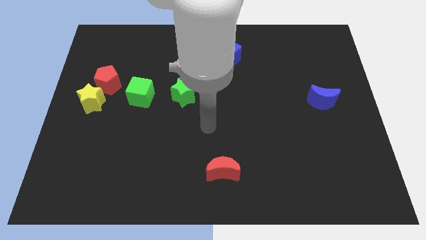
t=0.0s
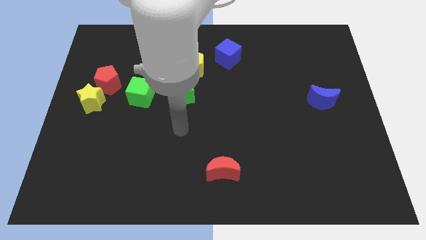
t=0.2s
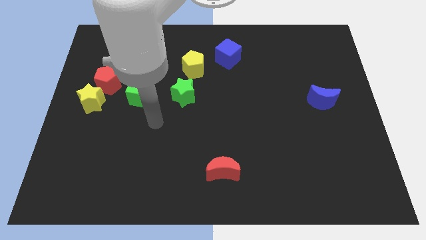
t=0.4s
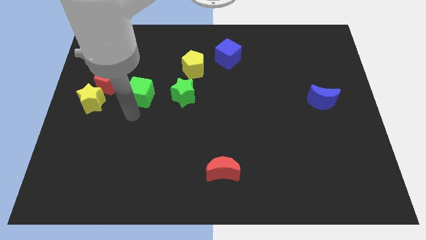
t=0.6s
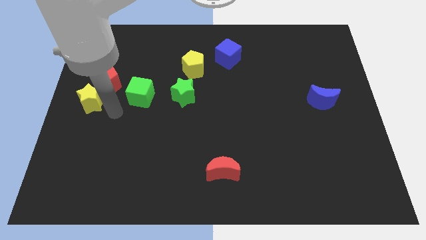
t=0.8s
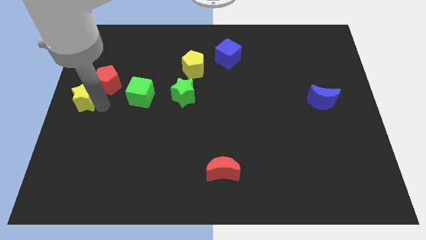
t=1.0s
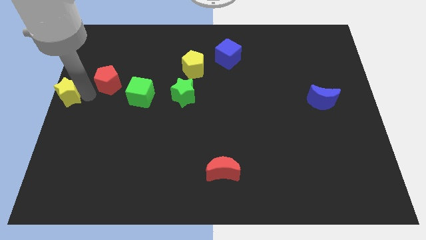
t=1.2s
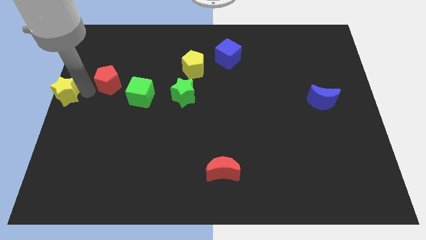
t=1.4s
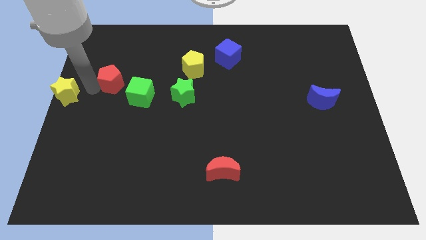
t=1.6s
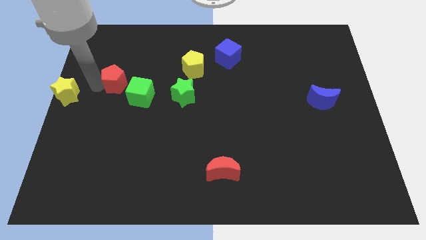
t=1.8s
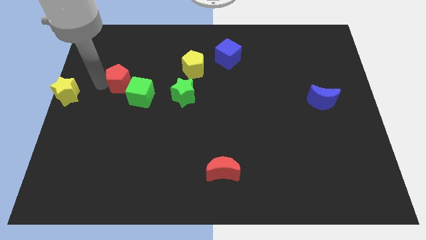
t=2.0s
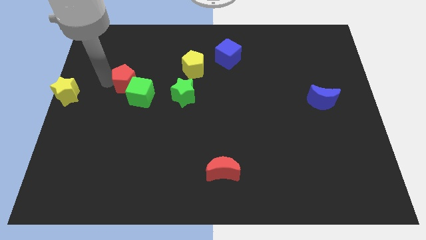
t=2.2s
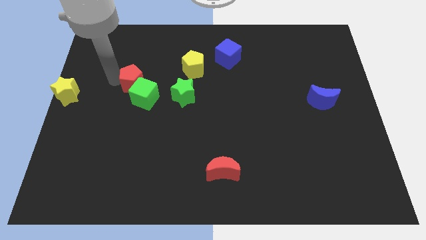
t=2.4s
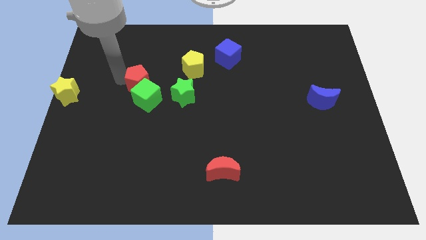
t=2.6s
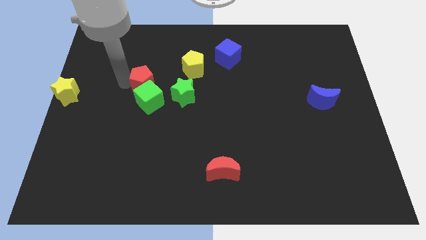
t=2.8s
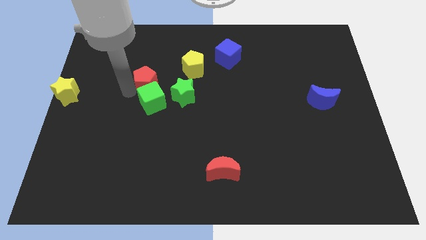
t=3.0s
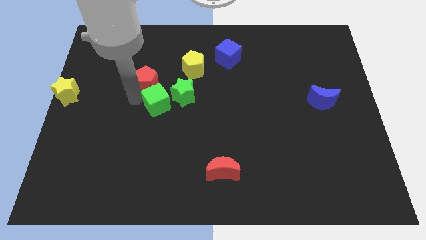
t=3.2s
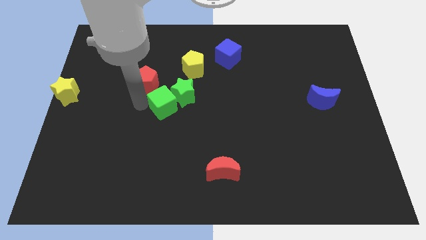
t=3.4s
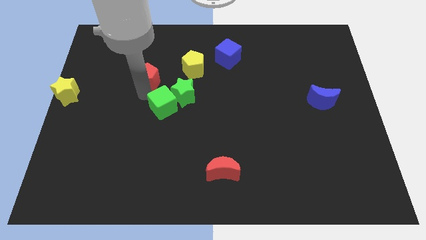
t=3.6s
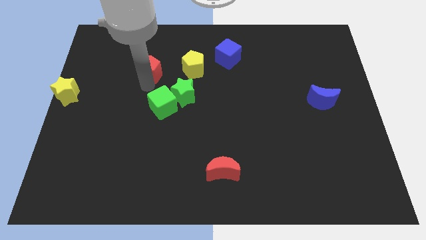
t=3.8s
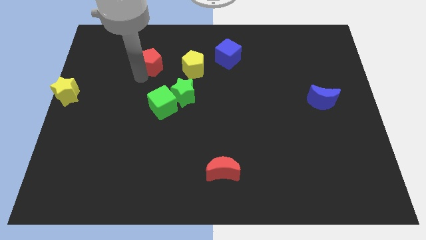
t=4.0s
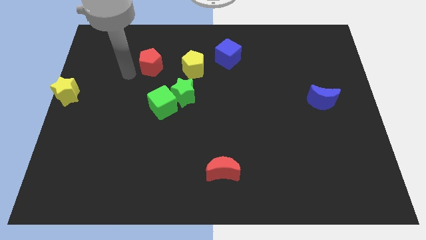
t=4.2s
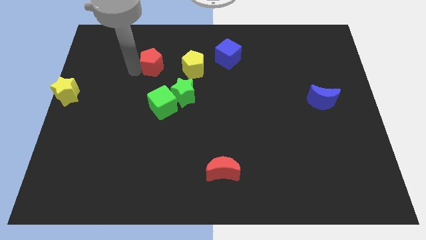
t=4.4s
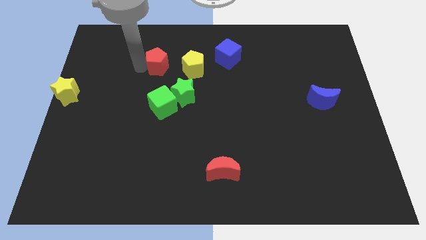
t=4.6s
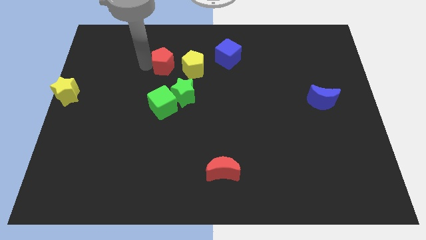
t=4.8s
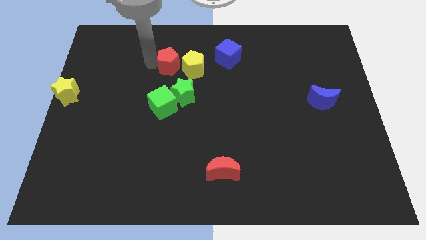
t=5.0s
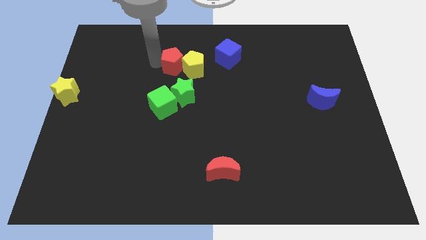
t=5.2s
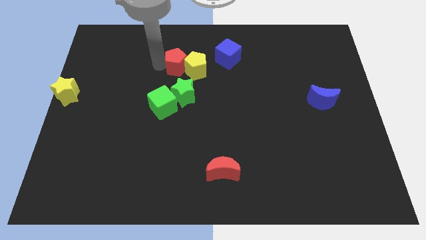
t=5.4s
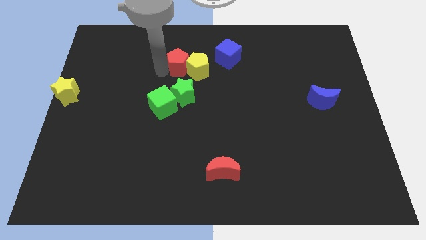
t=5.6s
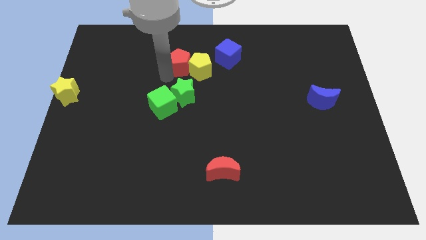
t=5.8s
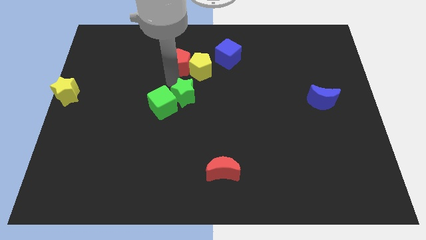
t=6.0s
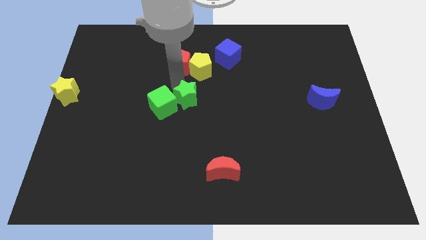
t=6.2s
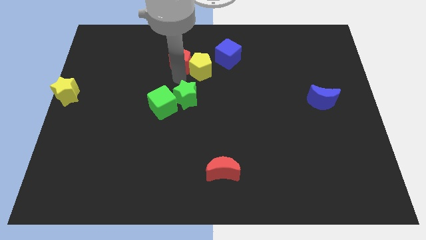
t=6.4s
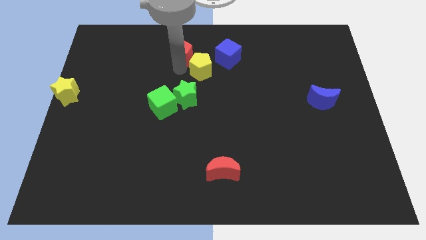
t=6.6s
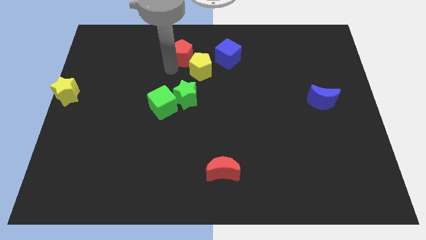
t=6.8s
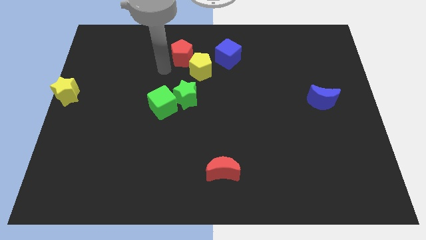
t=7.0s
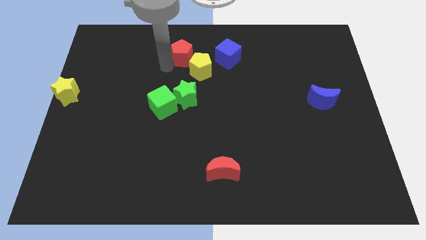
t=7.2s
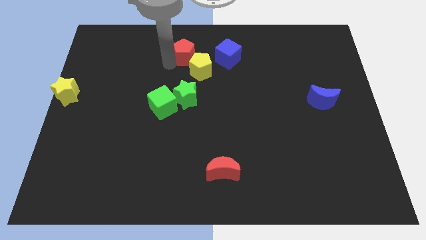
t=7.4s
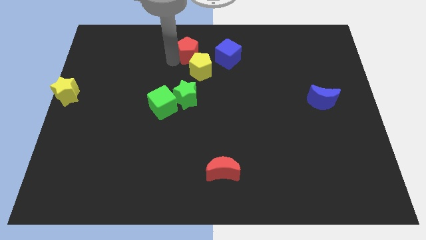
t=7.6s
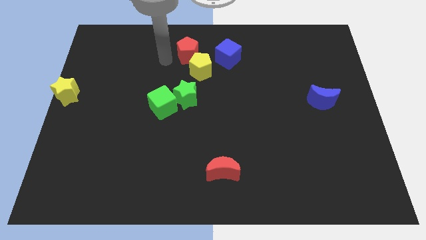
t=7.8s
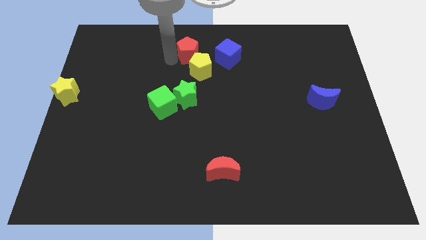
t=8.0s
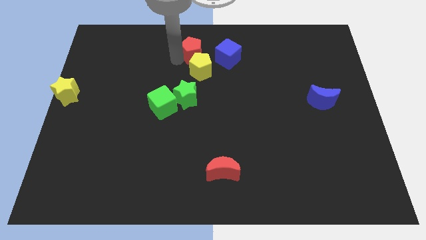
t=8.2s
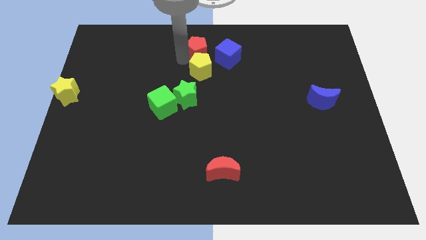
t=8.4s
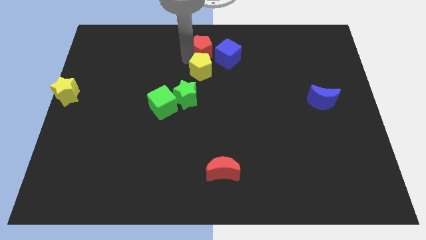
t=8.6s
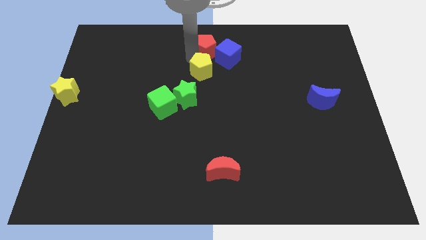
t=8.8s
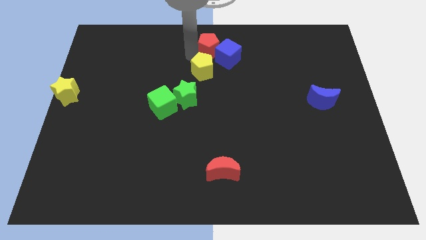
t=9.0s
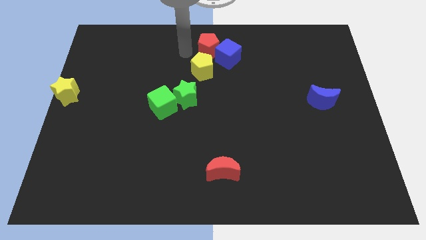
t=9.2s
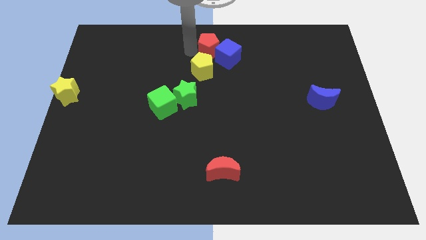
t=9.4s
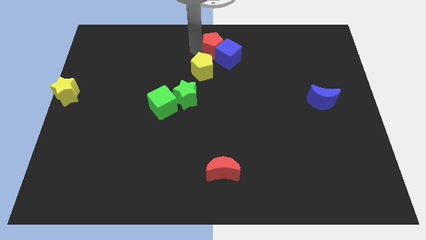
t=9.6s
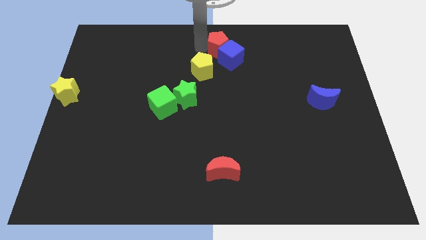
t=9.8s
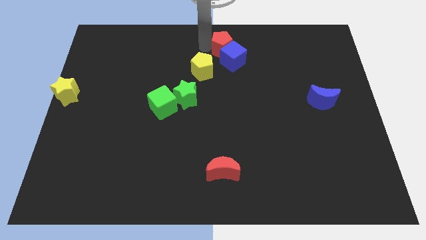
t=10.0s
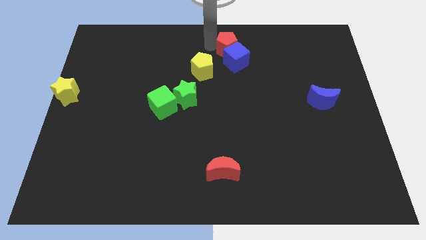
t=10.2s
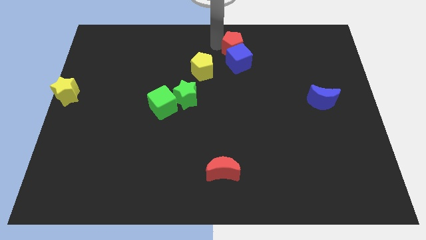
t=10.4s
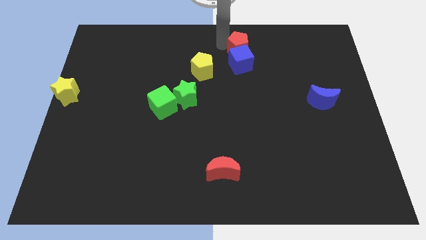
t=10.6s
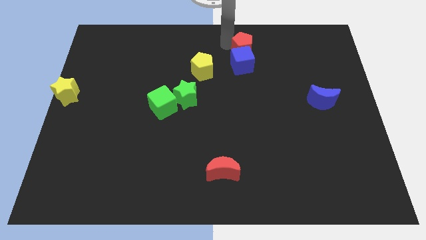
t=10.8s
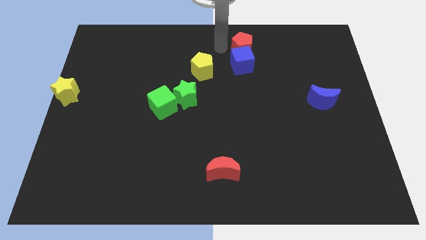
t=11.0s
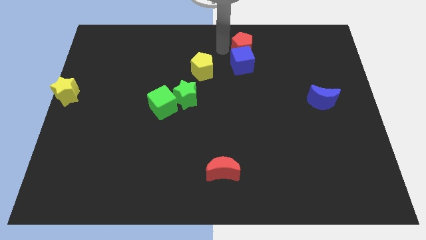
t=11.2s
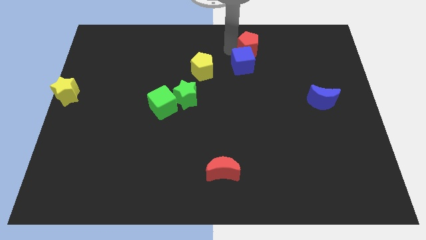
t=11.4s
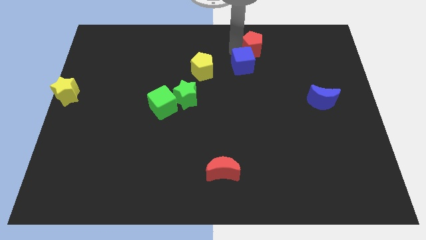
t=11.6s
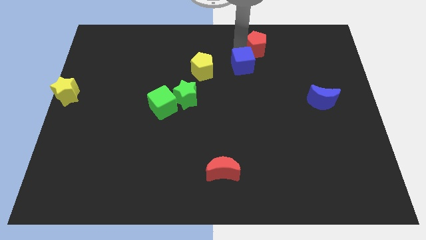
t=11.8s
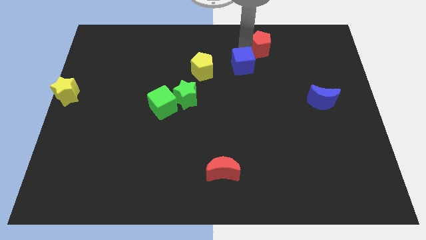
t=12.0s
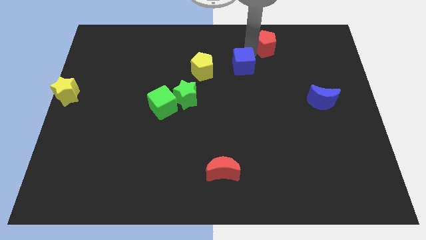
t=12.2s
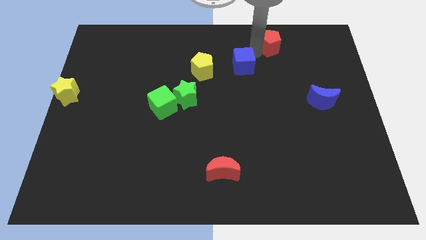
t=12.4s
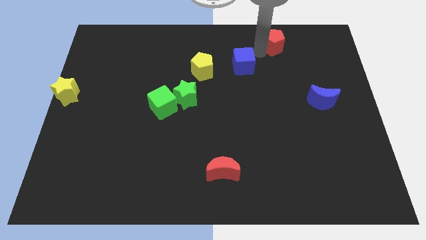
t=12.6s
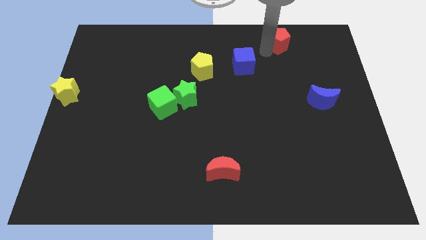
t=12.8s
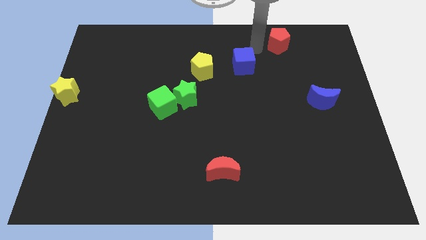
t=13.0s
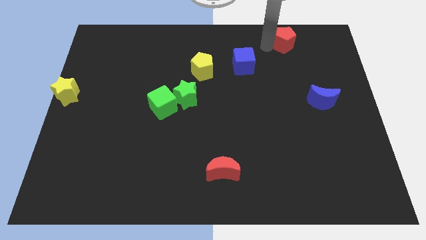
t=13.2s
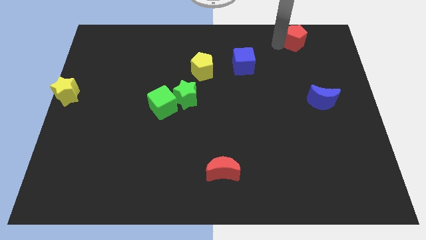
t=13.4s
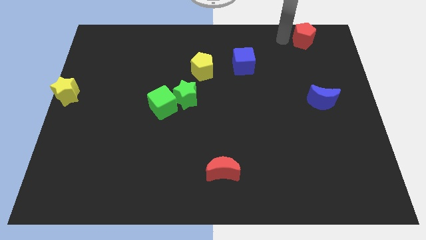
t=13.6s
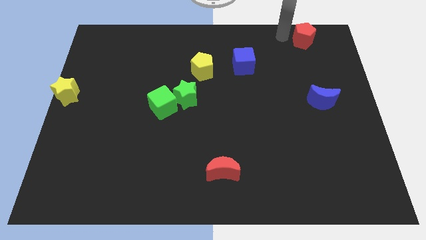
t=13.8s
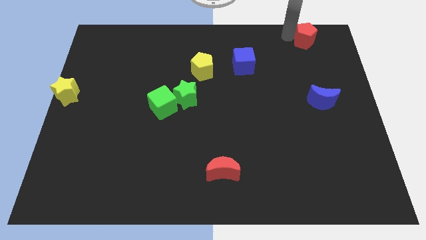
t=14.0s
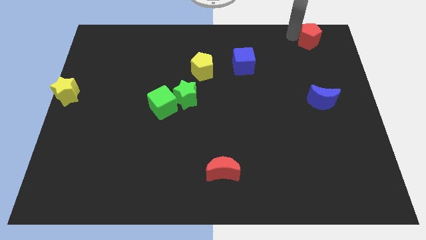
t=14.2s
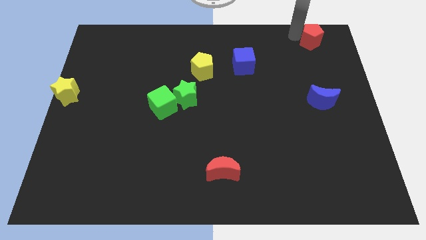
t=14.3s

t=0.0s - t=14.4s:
slide the red pentagon to the top right of the board
